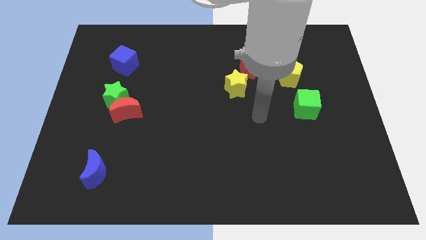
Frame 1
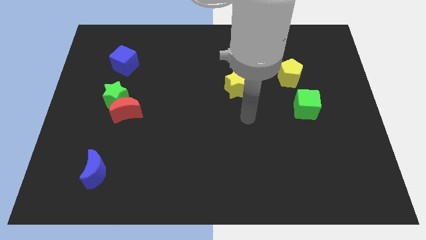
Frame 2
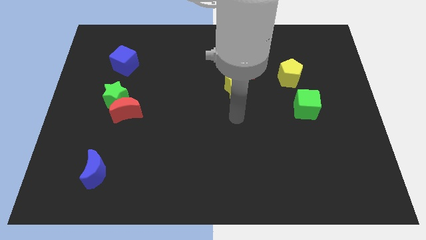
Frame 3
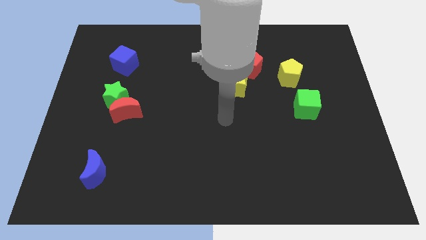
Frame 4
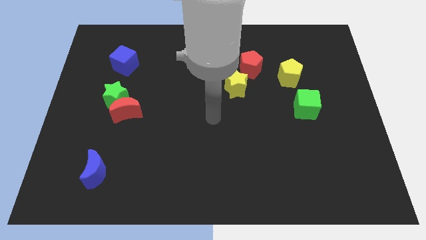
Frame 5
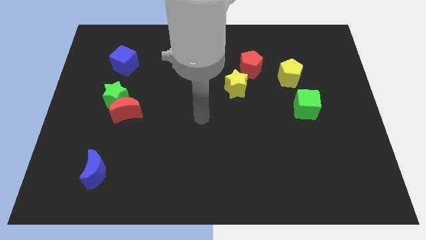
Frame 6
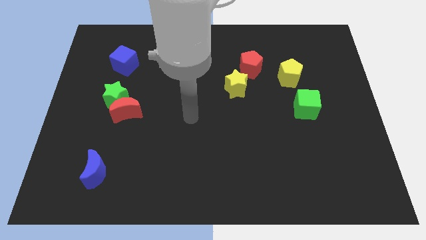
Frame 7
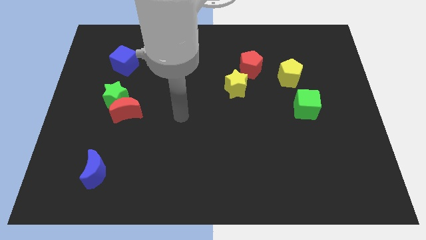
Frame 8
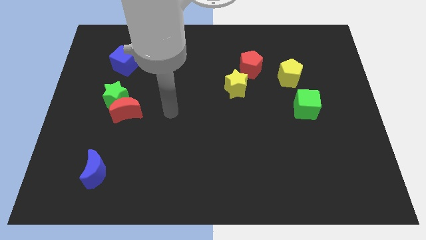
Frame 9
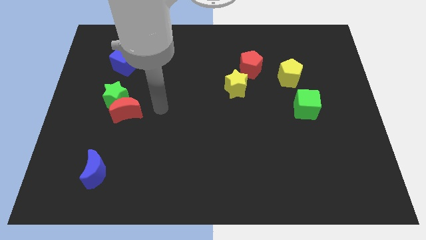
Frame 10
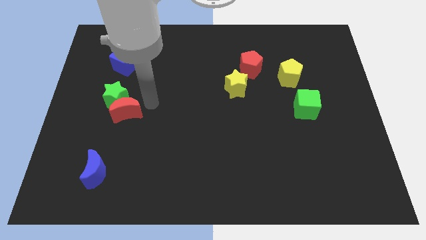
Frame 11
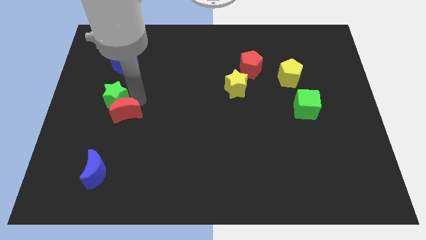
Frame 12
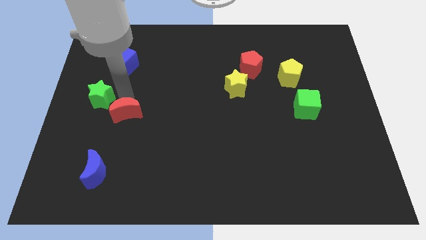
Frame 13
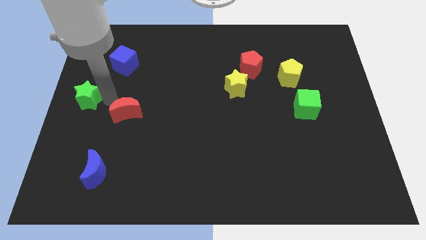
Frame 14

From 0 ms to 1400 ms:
move the red moon away from the green star

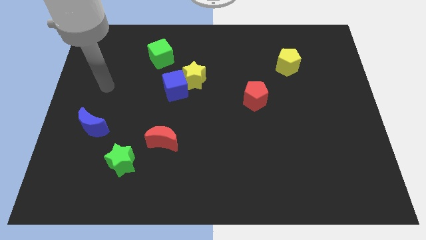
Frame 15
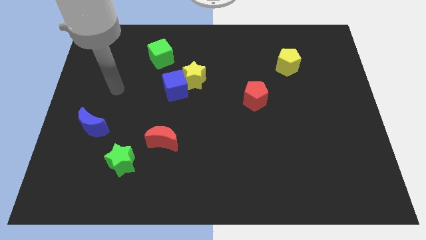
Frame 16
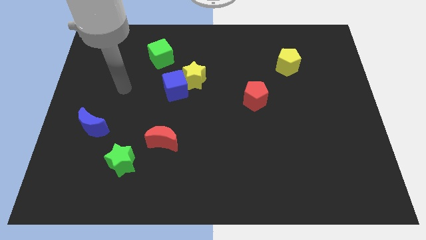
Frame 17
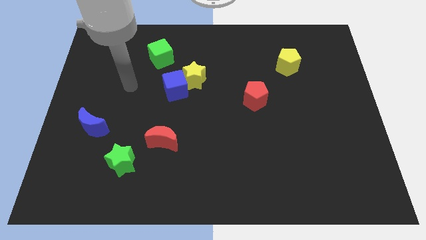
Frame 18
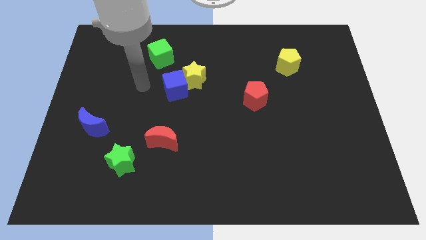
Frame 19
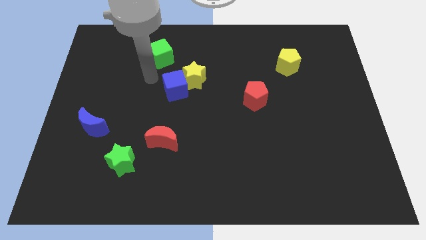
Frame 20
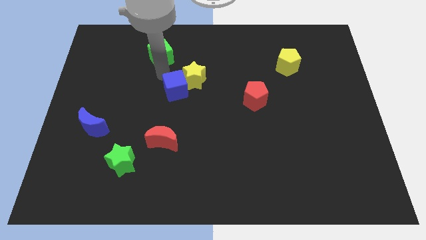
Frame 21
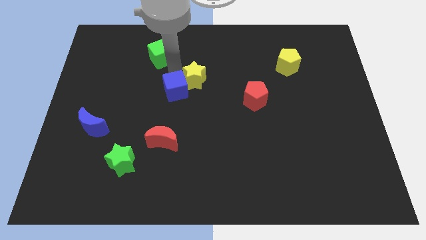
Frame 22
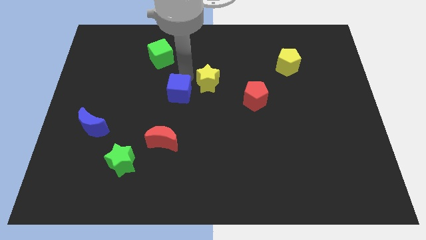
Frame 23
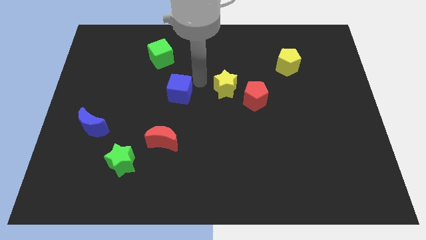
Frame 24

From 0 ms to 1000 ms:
separate the blue cube from the yellow star

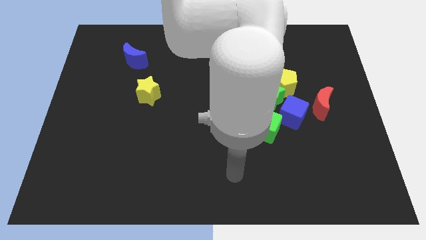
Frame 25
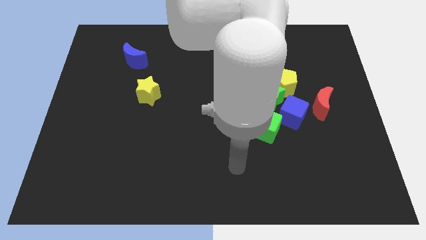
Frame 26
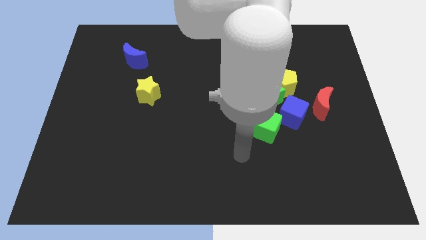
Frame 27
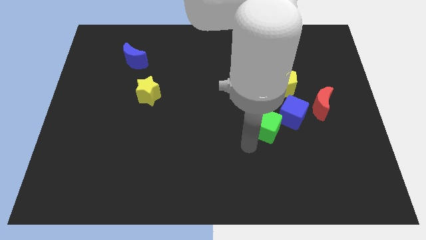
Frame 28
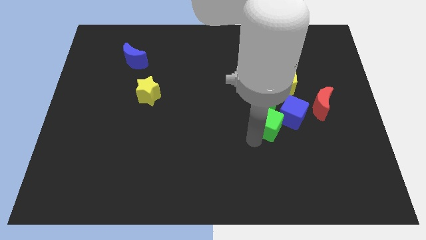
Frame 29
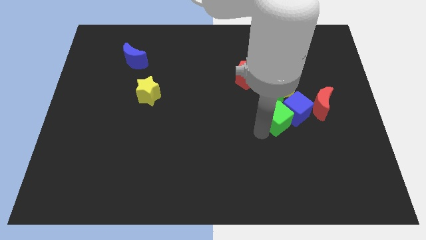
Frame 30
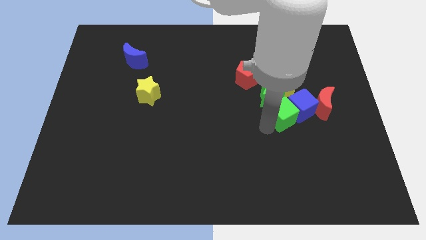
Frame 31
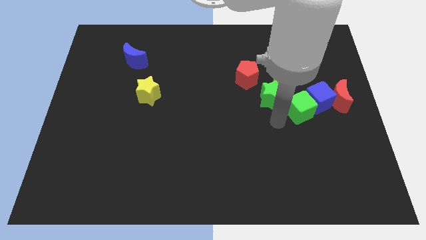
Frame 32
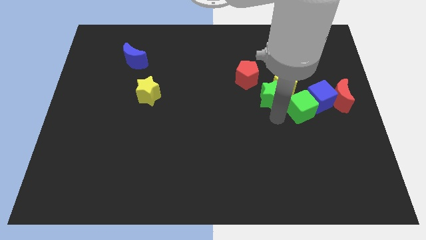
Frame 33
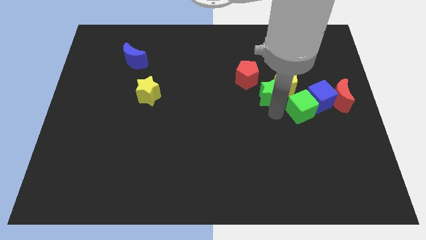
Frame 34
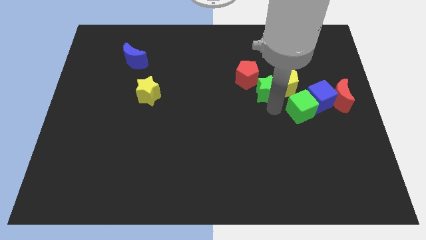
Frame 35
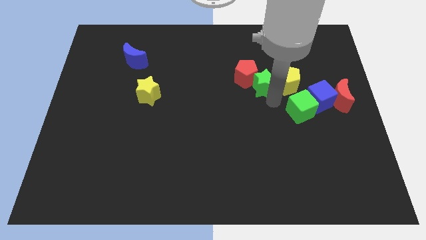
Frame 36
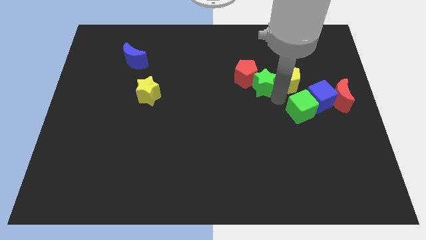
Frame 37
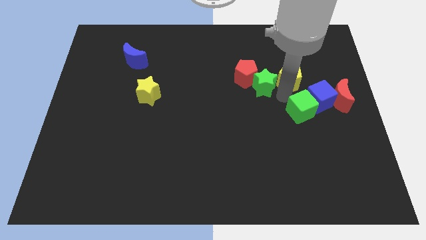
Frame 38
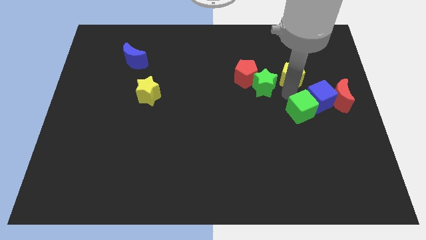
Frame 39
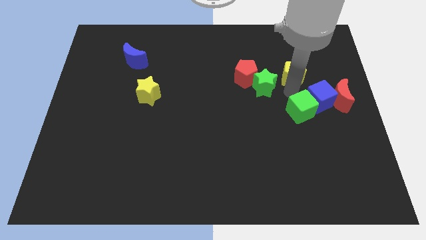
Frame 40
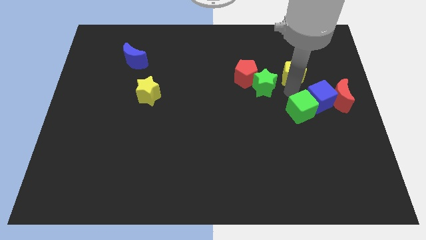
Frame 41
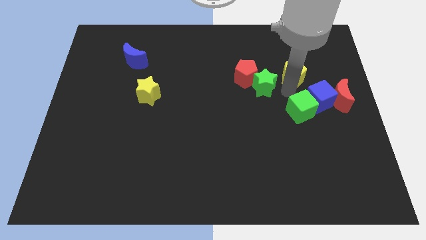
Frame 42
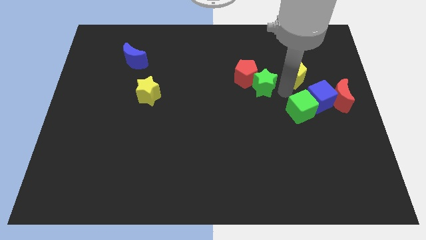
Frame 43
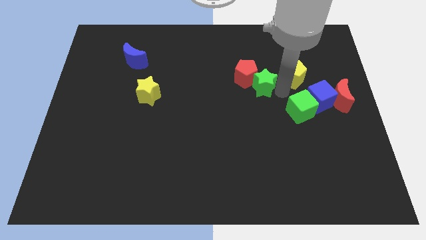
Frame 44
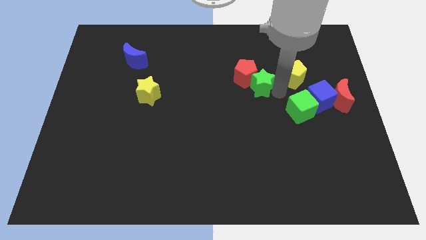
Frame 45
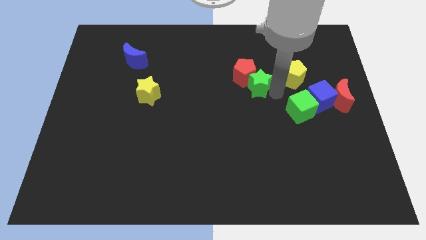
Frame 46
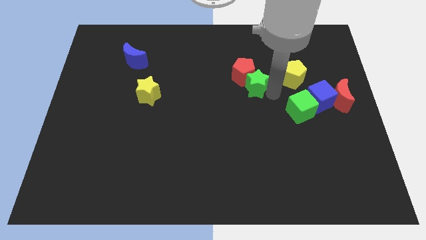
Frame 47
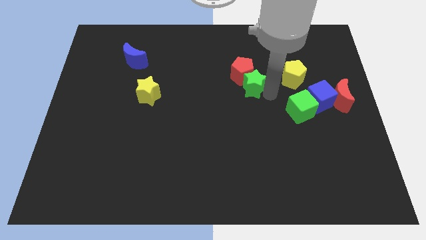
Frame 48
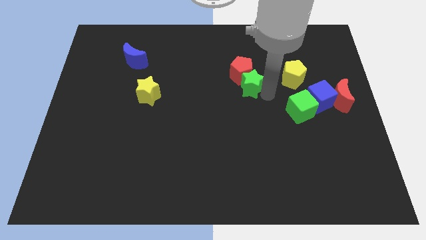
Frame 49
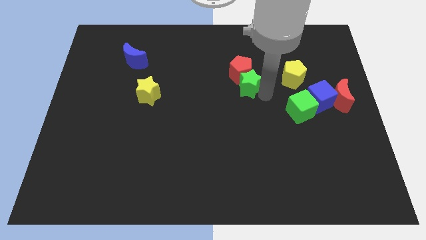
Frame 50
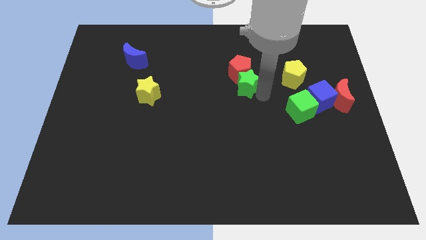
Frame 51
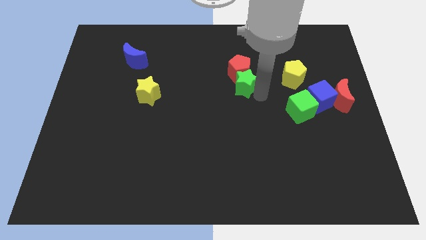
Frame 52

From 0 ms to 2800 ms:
pull the green star apart from the group

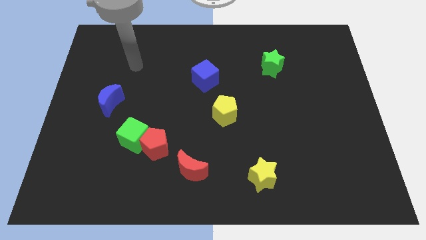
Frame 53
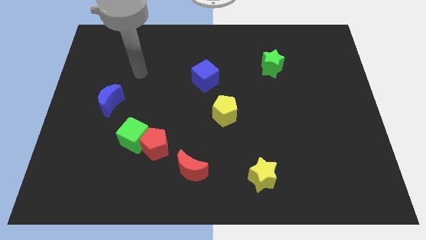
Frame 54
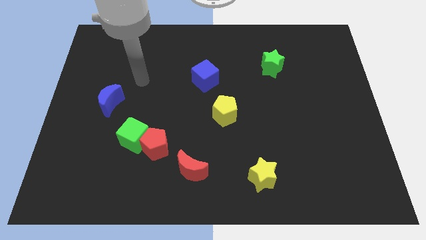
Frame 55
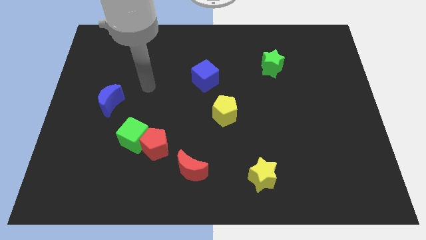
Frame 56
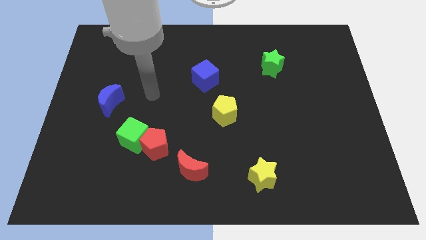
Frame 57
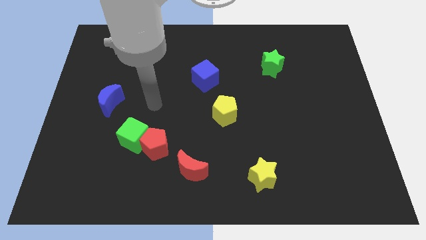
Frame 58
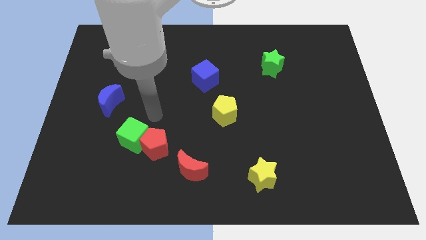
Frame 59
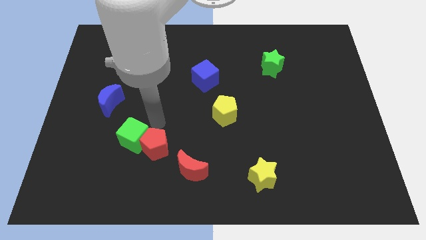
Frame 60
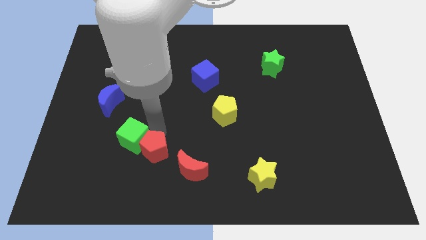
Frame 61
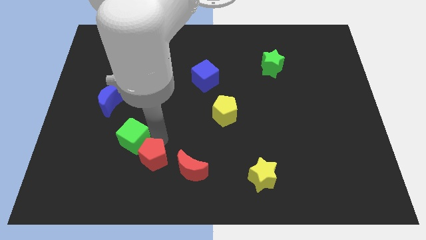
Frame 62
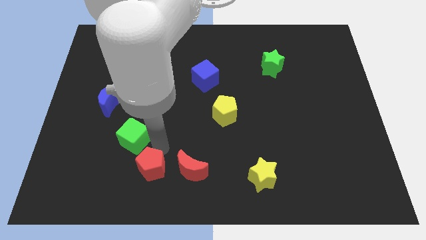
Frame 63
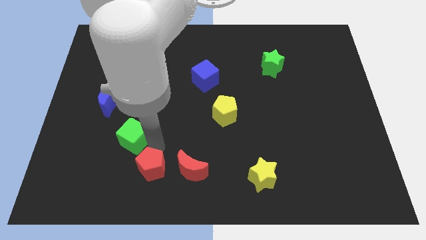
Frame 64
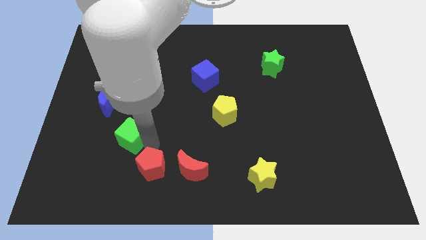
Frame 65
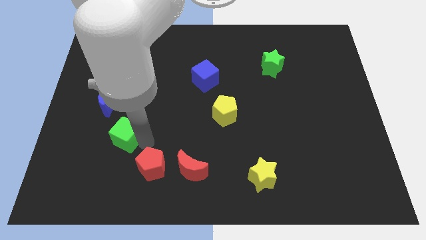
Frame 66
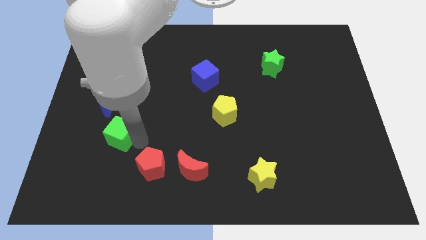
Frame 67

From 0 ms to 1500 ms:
separate the green cube from the red pentagon

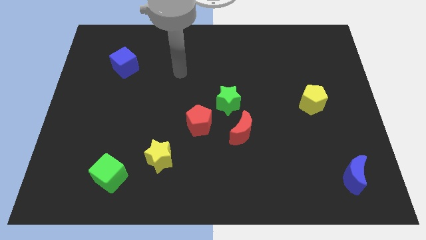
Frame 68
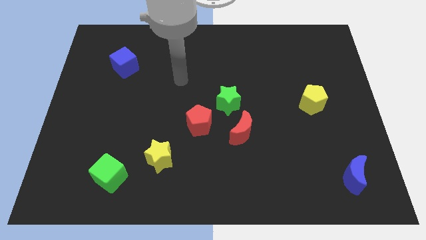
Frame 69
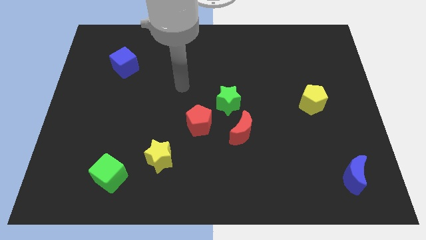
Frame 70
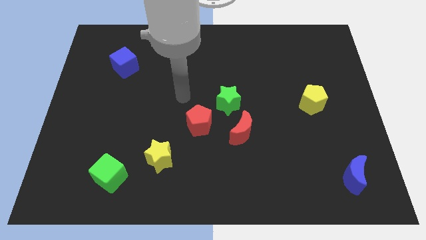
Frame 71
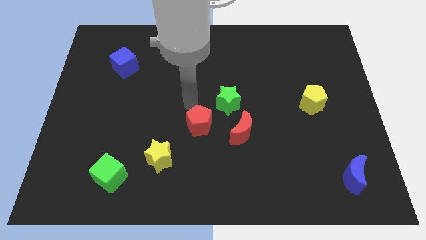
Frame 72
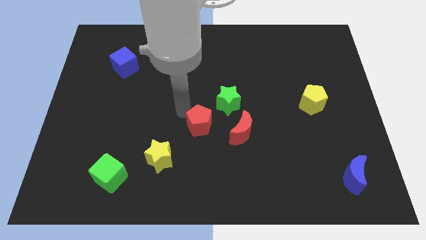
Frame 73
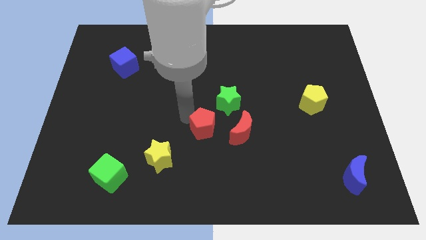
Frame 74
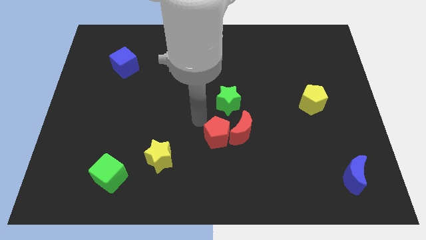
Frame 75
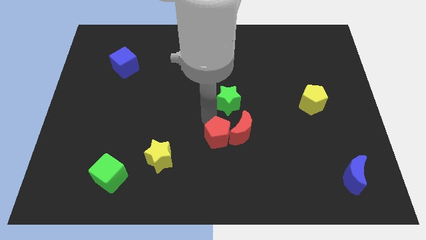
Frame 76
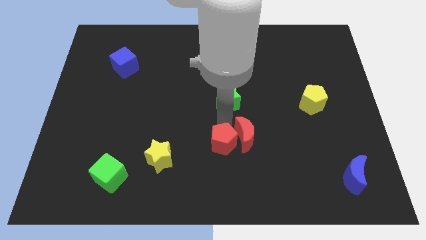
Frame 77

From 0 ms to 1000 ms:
pull the green star apart from the red pentagon and red moon

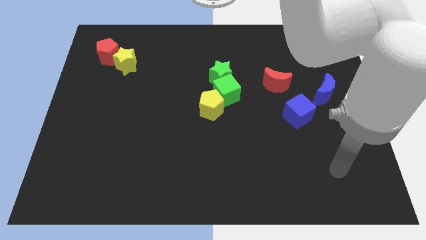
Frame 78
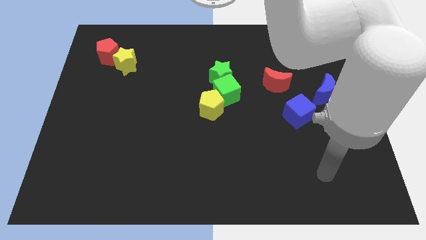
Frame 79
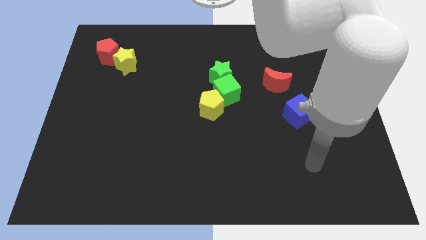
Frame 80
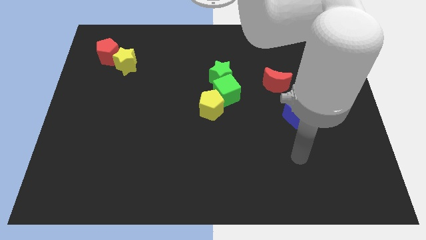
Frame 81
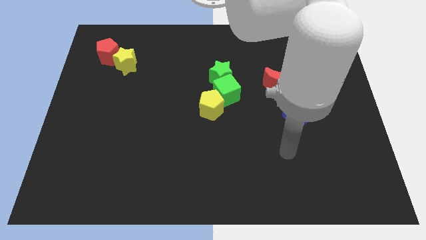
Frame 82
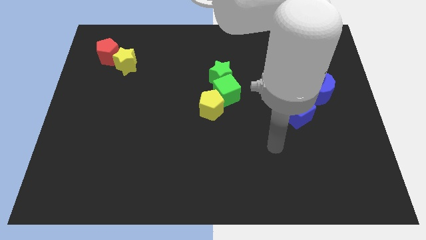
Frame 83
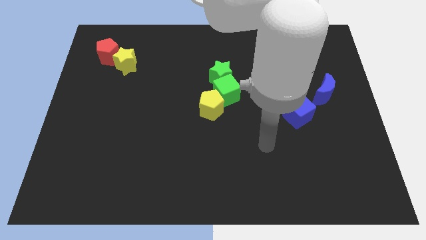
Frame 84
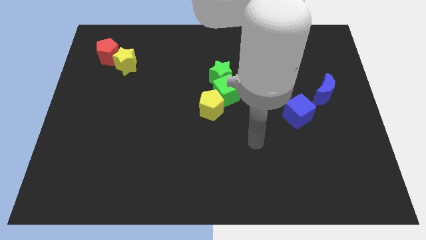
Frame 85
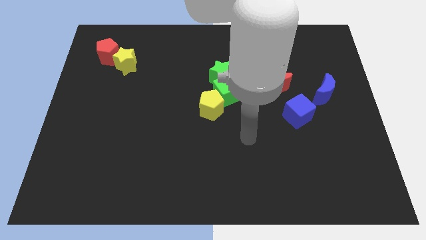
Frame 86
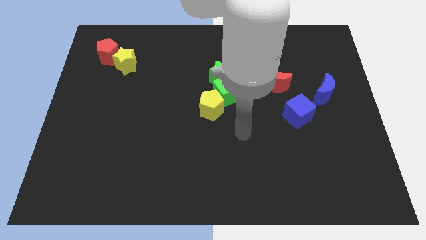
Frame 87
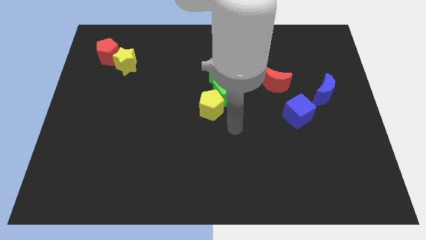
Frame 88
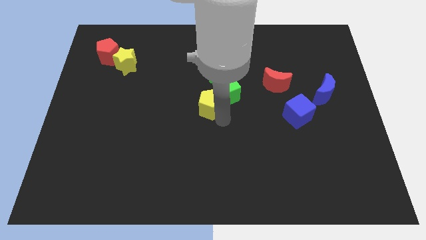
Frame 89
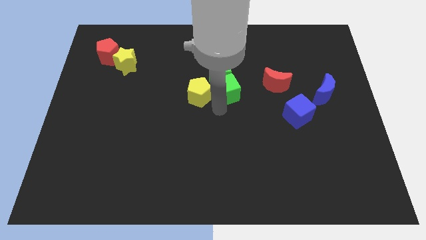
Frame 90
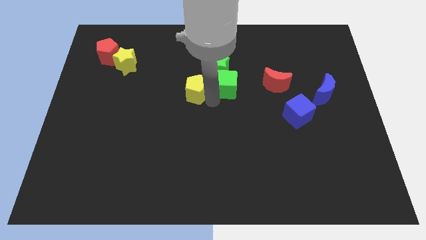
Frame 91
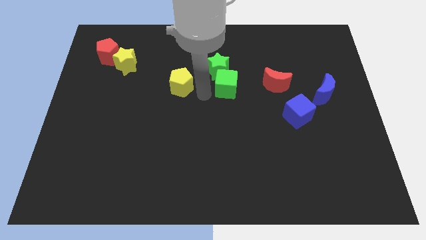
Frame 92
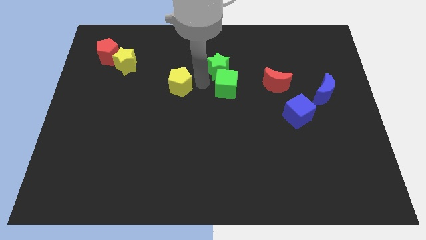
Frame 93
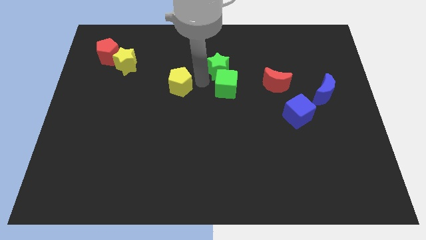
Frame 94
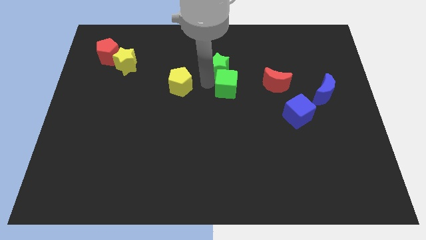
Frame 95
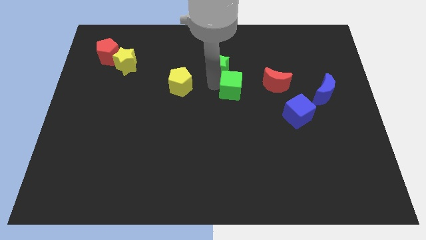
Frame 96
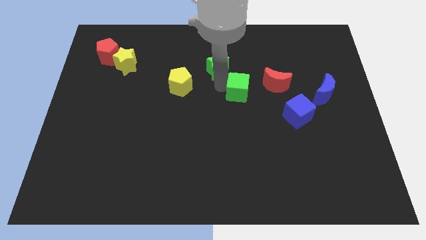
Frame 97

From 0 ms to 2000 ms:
pull the green cube apart from the green star and yellow pentagon
